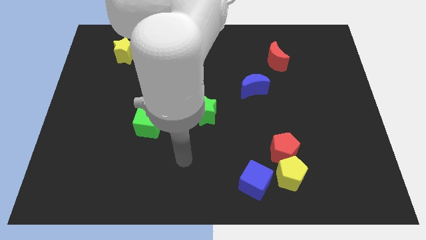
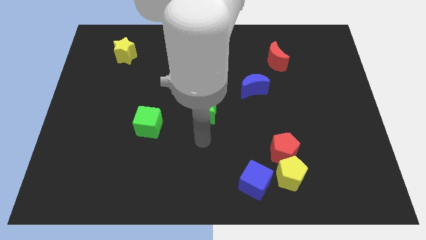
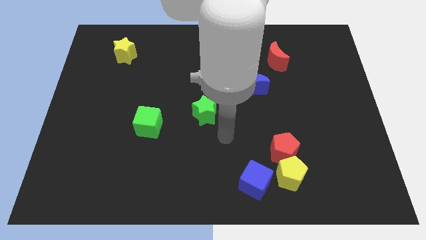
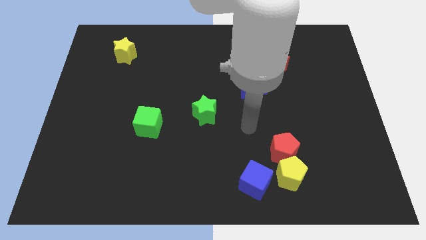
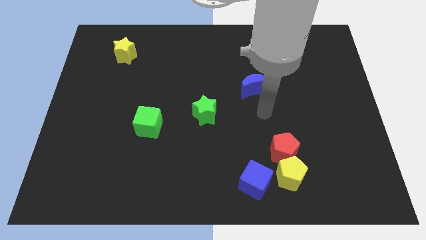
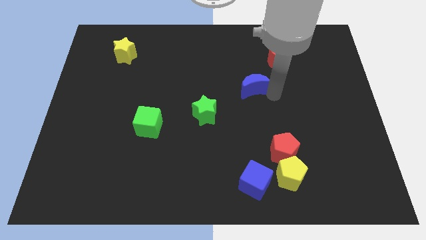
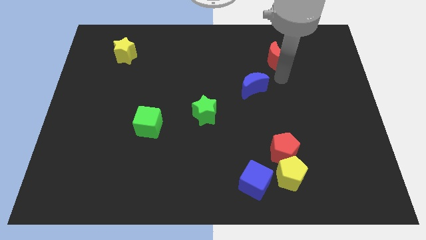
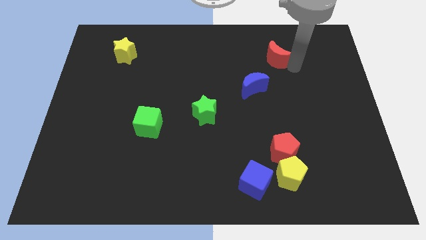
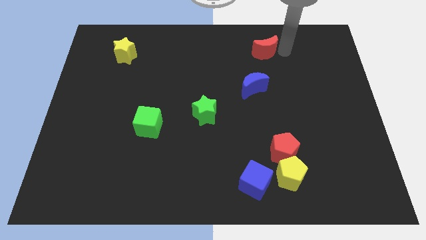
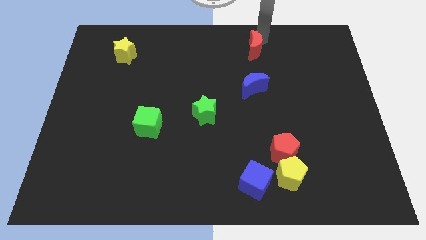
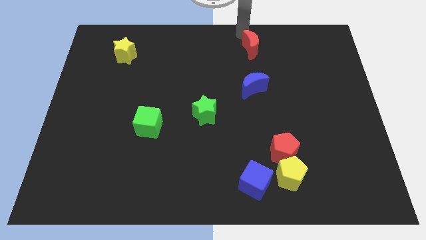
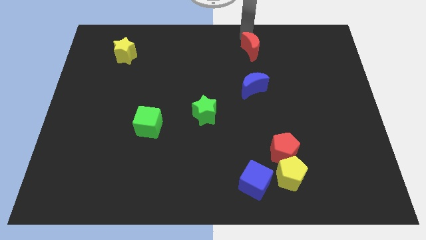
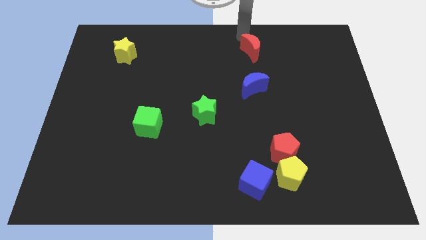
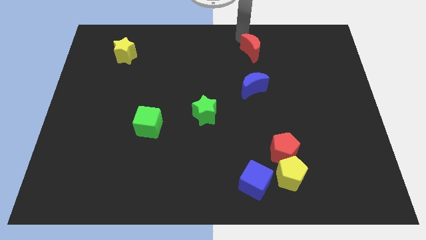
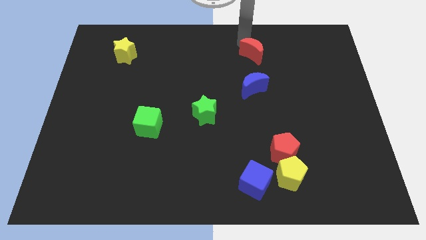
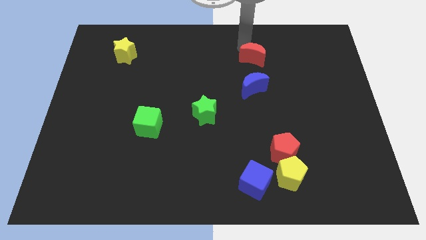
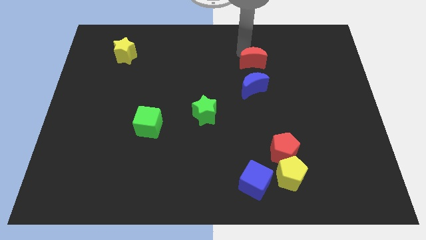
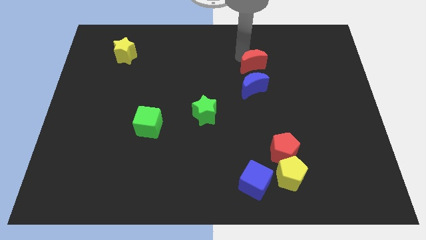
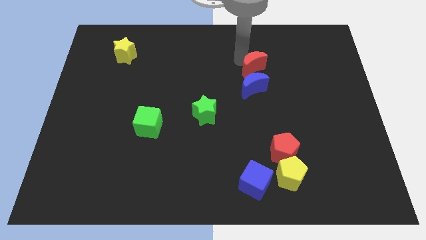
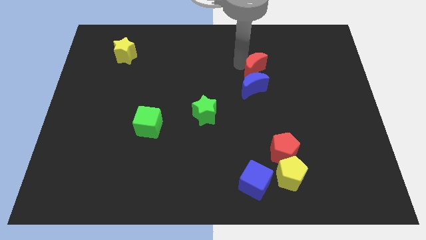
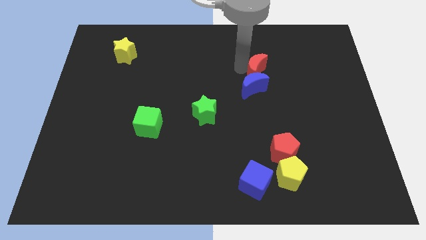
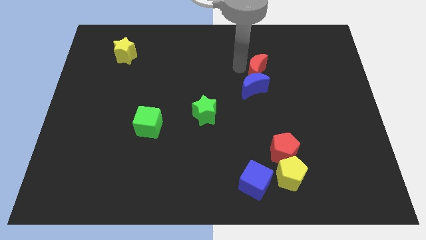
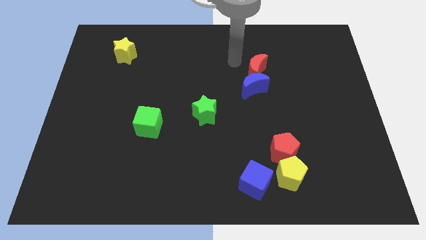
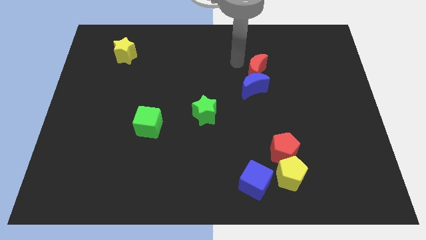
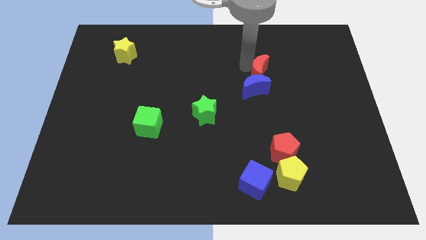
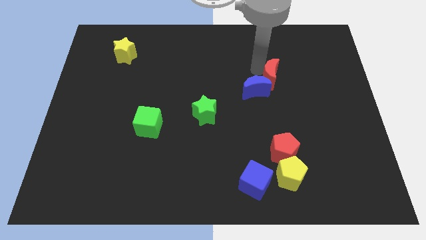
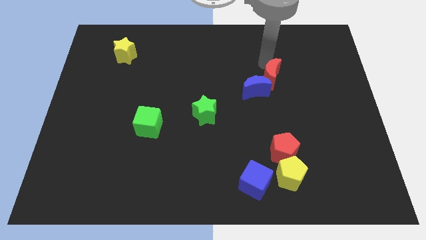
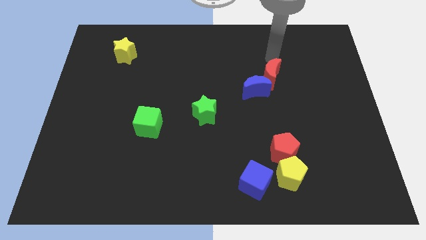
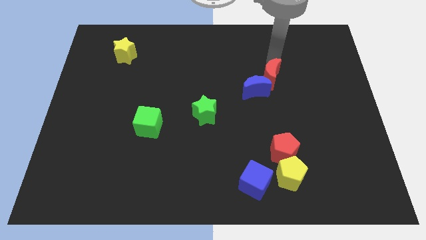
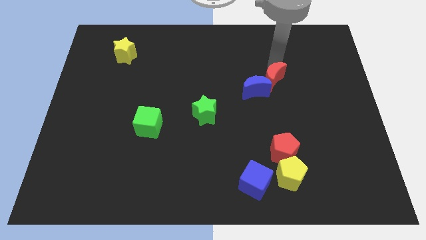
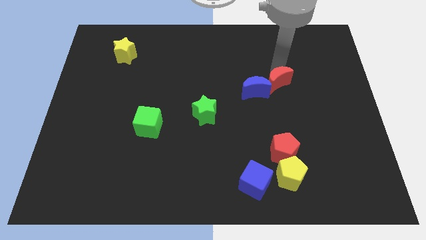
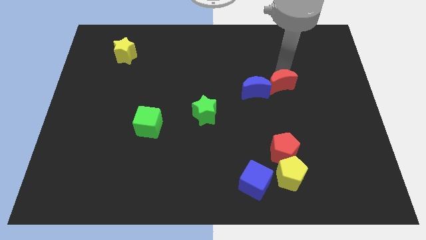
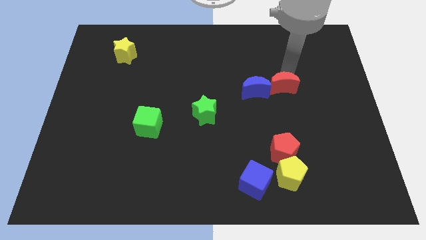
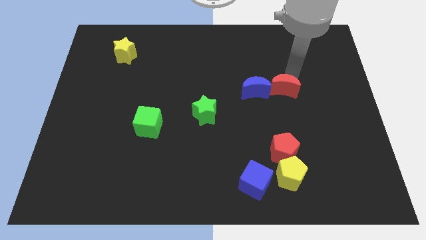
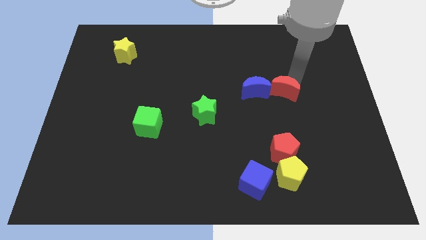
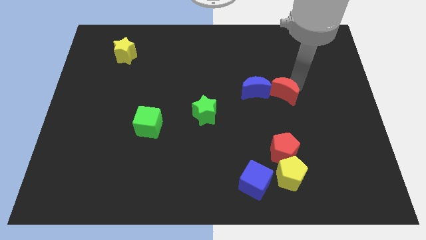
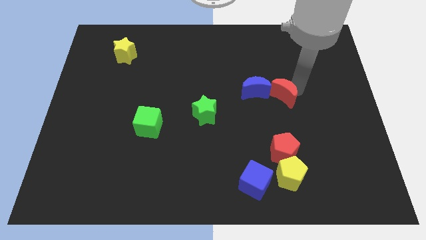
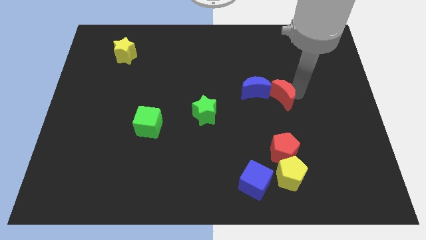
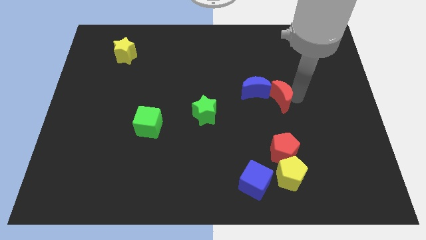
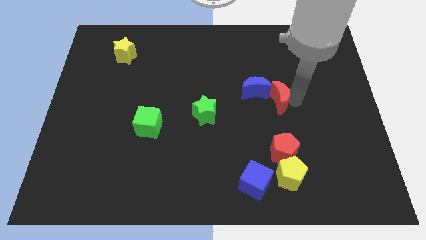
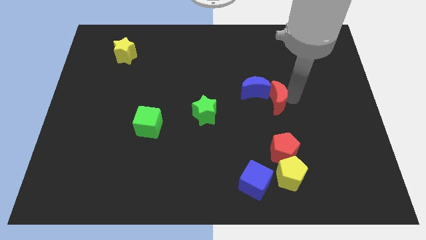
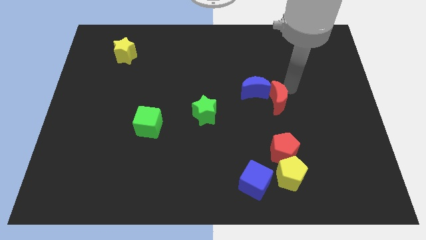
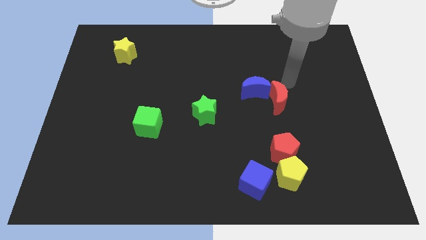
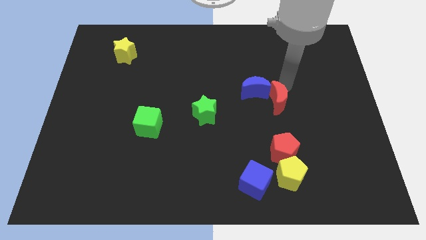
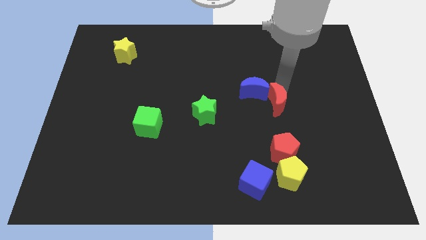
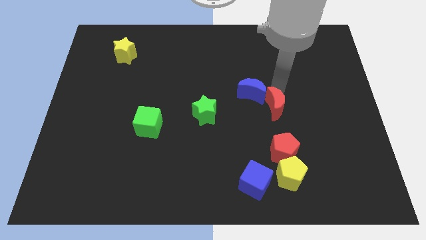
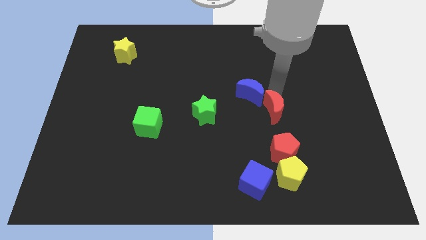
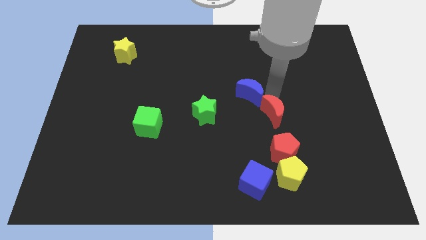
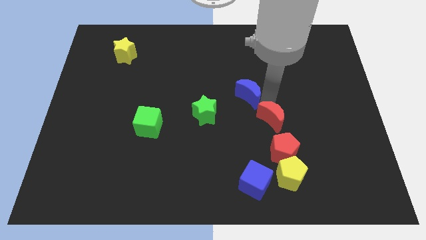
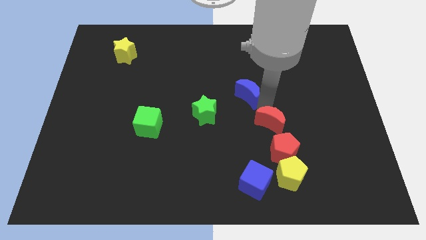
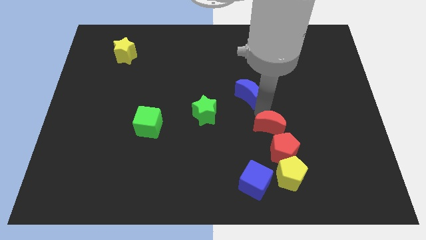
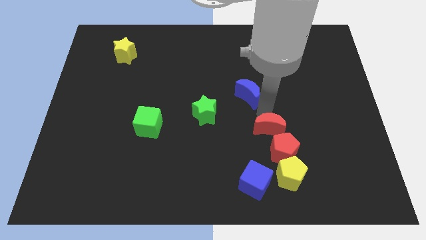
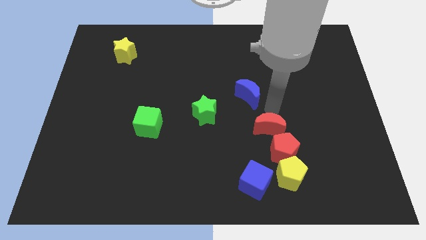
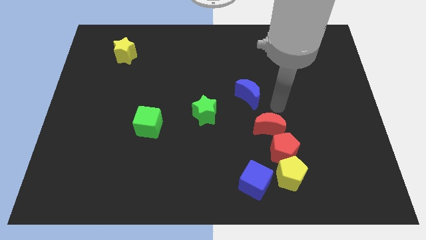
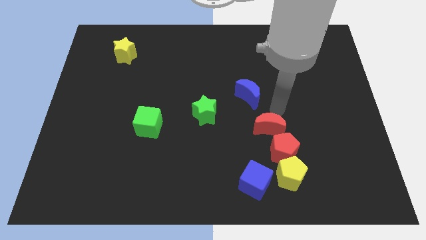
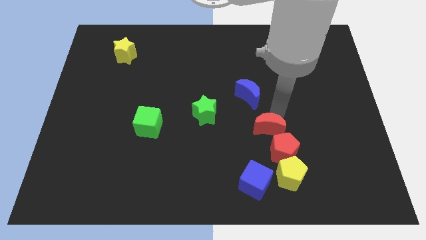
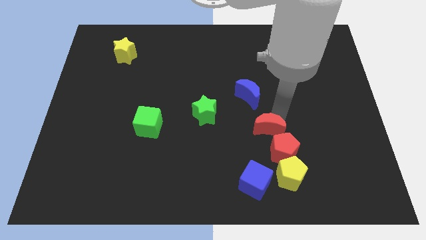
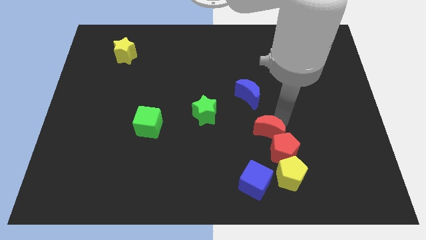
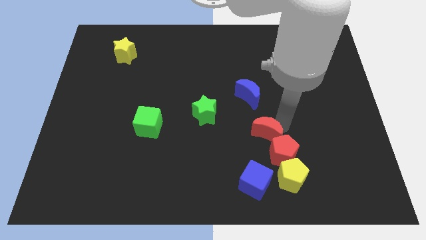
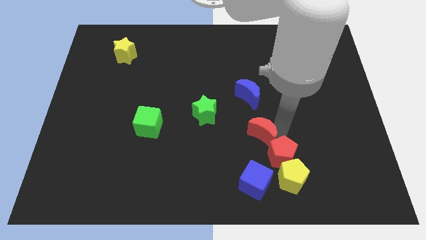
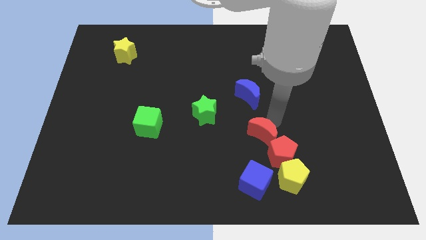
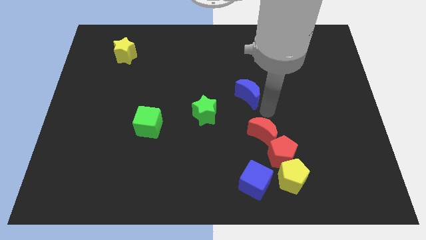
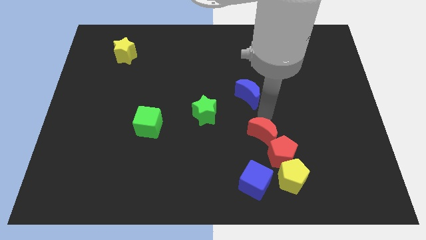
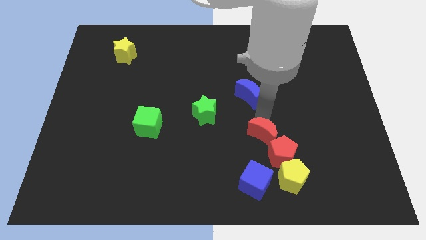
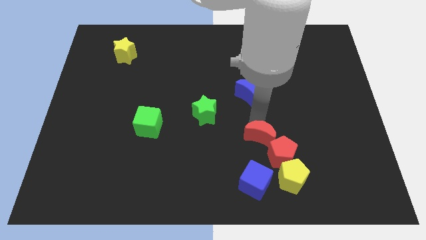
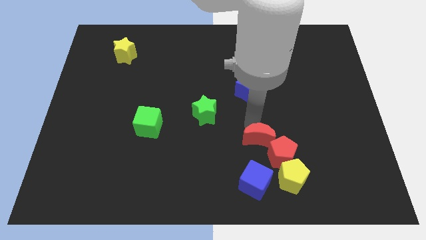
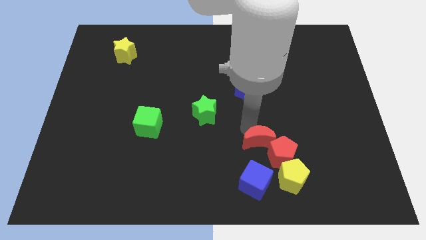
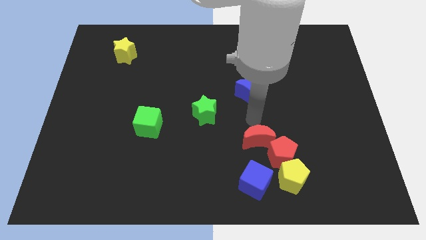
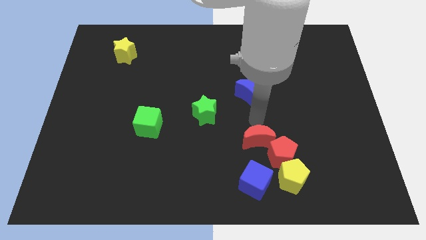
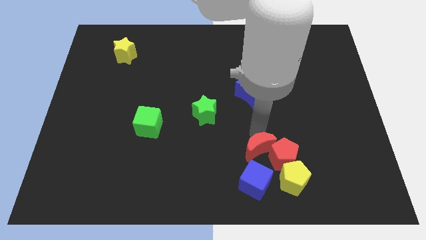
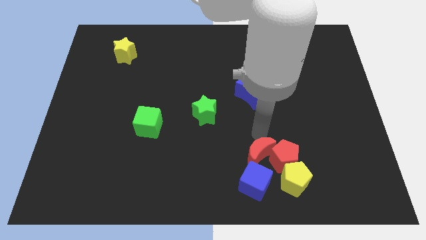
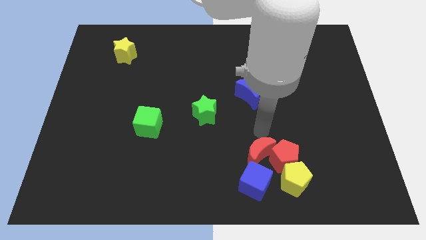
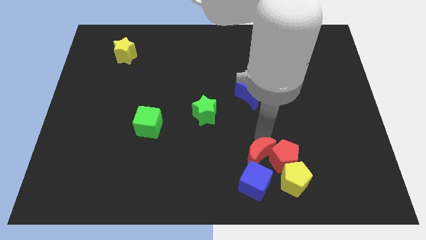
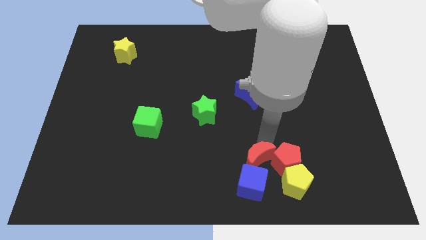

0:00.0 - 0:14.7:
move the red moon towards the blue cube

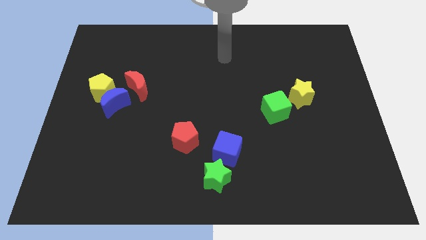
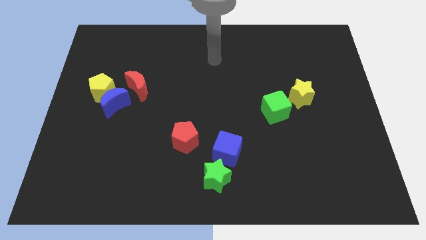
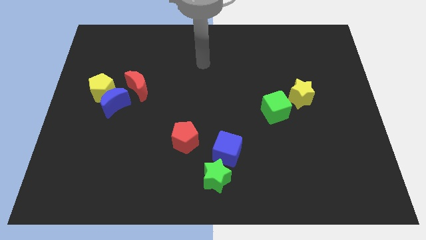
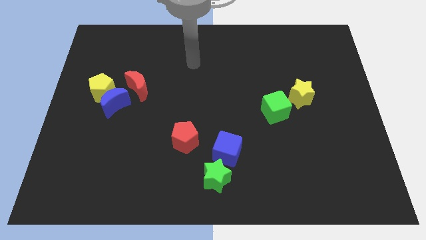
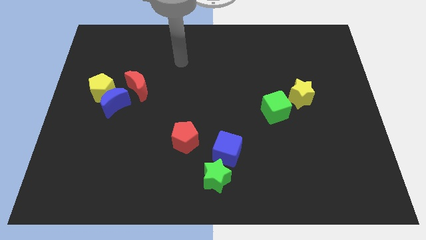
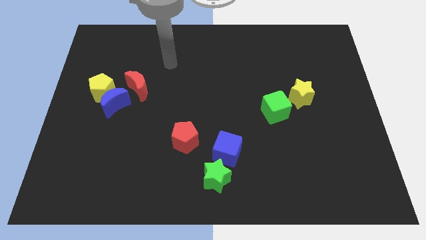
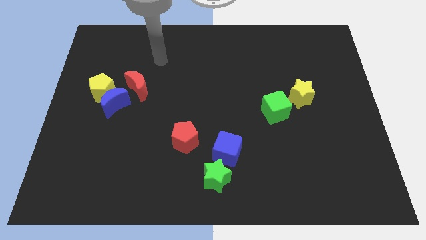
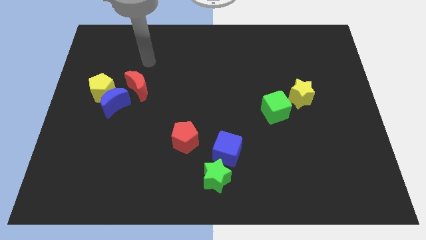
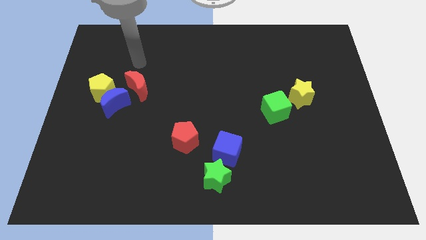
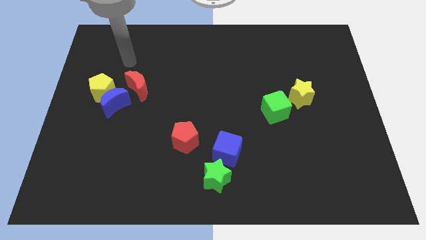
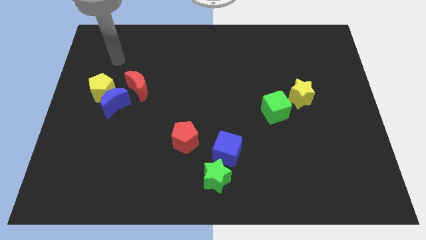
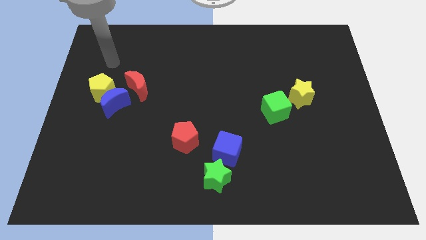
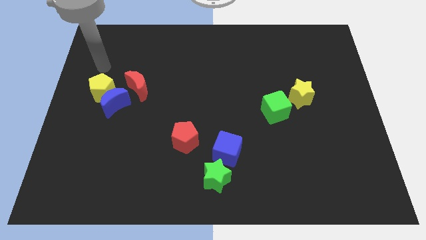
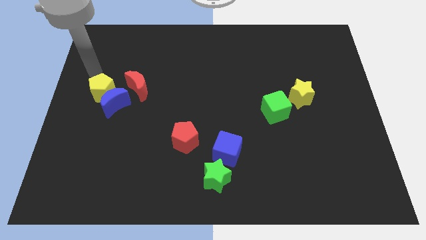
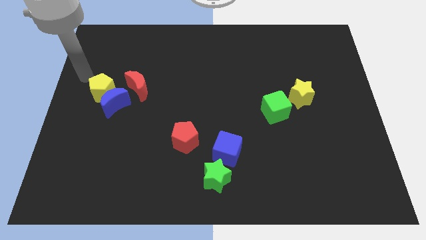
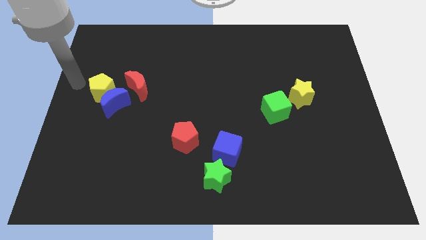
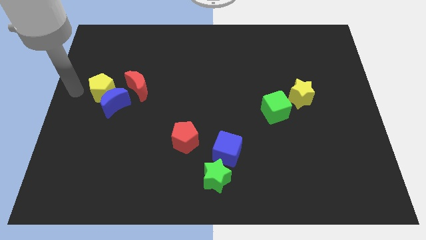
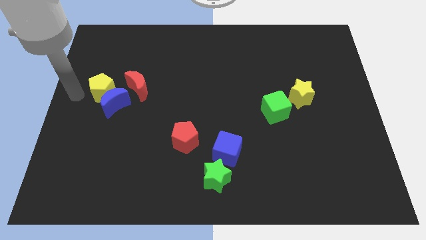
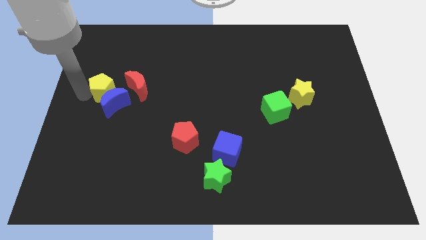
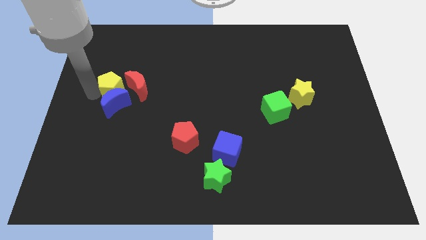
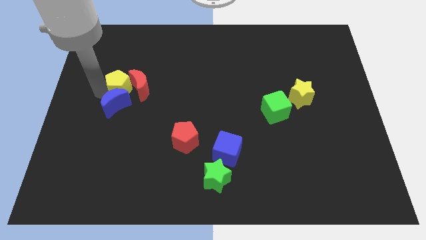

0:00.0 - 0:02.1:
slide the yellow pentagon to the red moon
